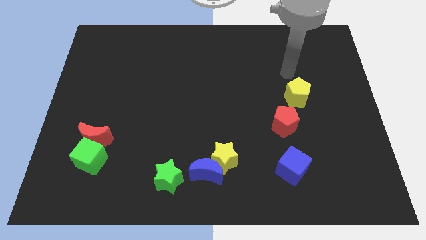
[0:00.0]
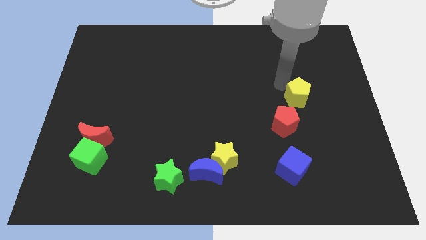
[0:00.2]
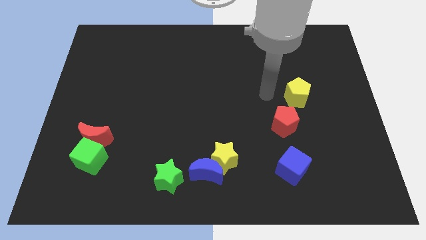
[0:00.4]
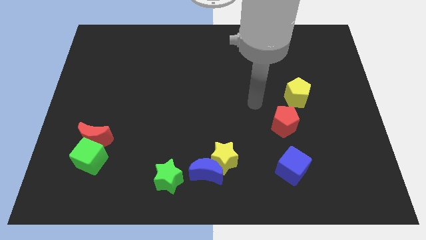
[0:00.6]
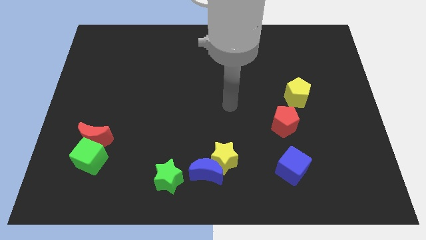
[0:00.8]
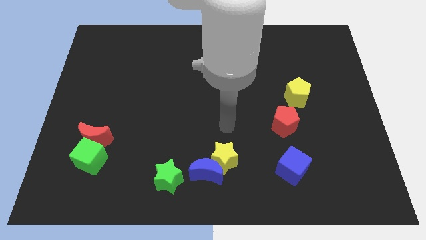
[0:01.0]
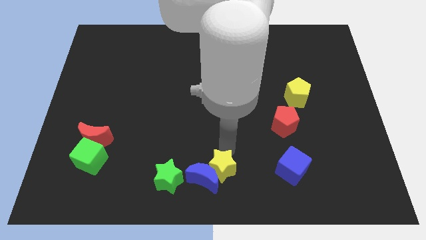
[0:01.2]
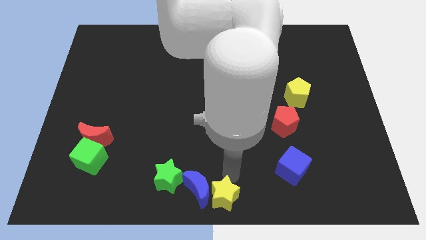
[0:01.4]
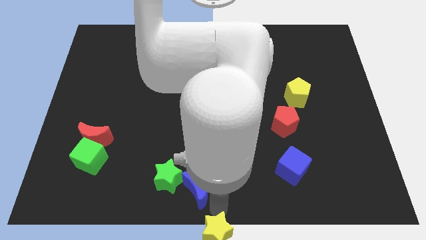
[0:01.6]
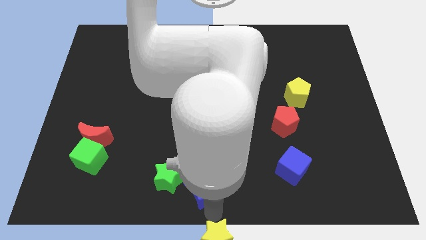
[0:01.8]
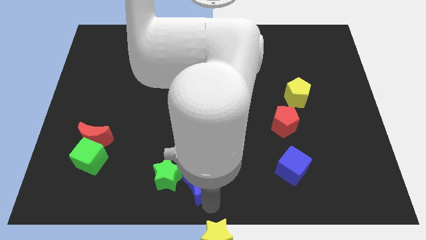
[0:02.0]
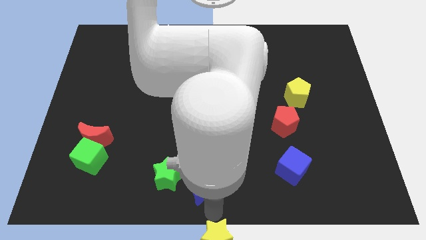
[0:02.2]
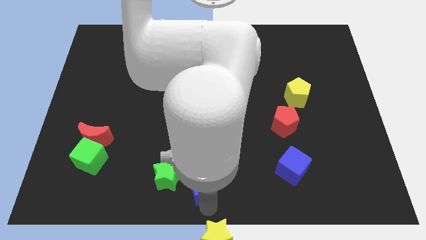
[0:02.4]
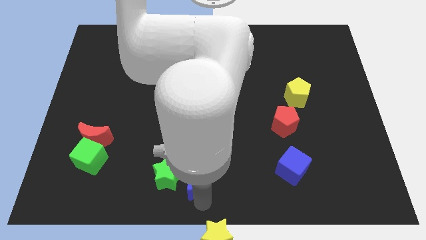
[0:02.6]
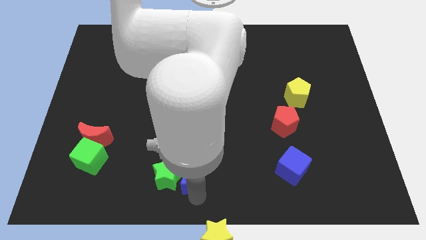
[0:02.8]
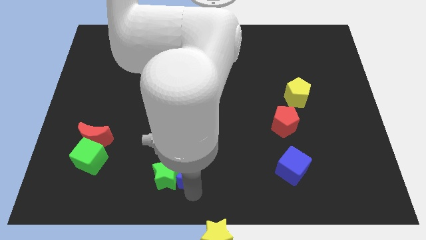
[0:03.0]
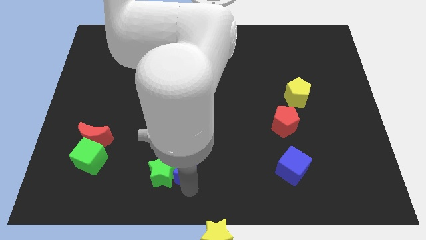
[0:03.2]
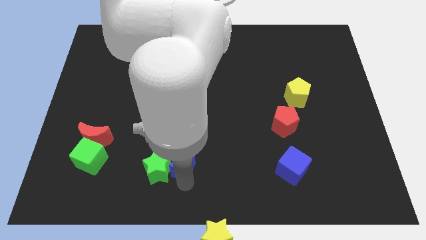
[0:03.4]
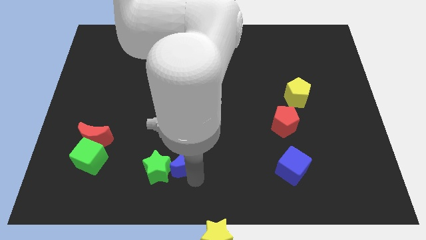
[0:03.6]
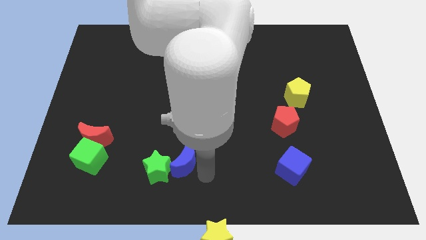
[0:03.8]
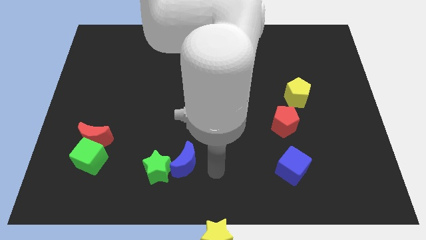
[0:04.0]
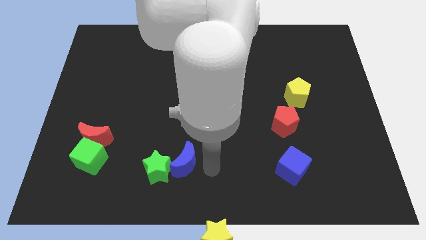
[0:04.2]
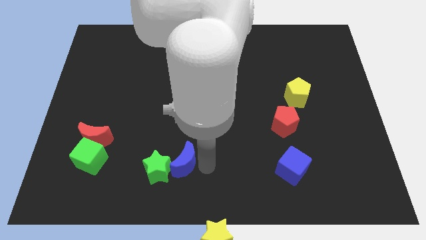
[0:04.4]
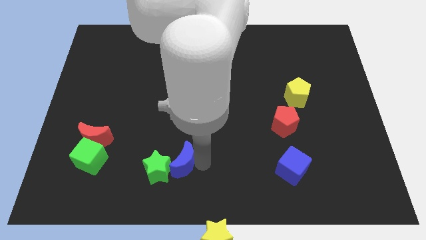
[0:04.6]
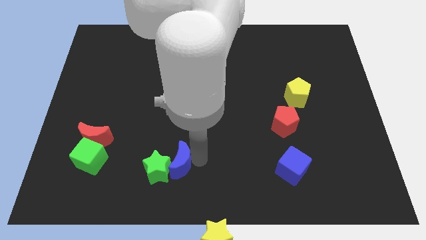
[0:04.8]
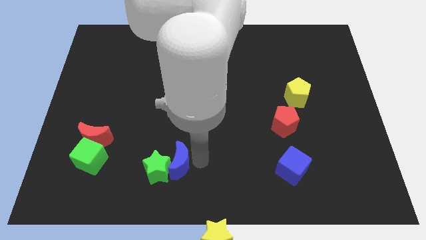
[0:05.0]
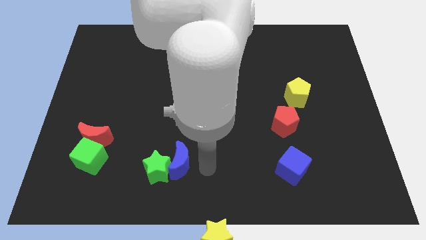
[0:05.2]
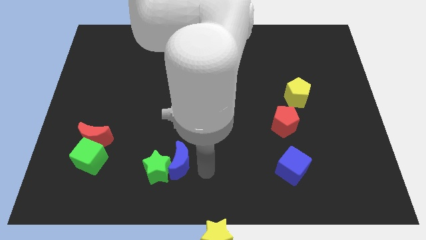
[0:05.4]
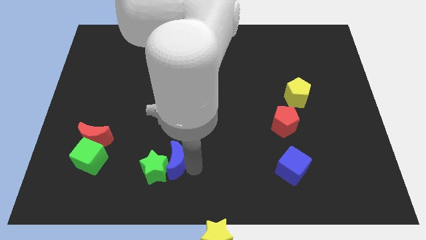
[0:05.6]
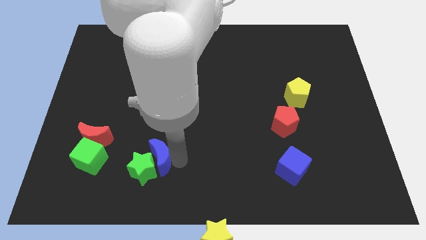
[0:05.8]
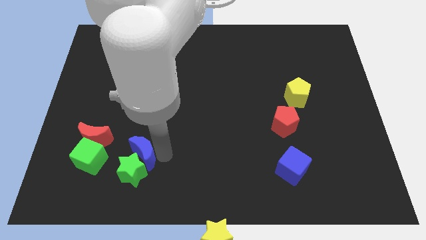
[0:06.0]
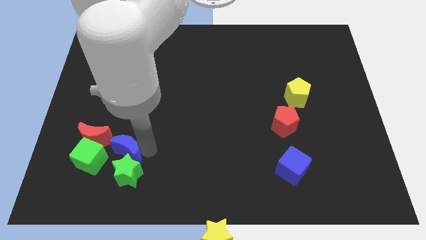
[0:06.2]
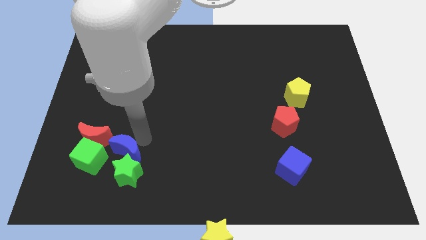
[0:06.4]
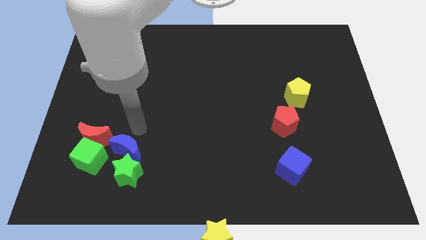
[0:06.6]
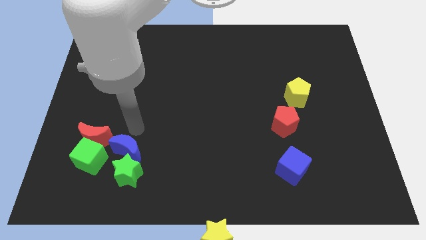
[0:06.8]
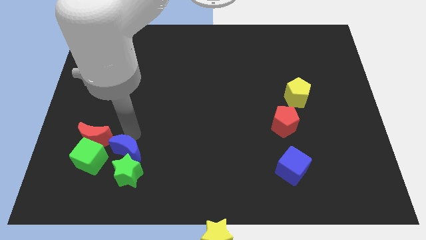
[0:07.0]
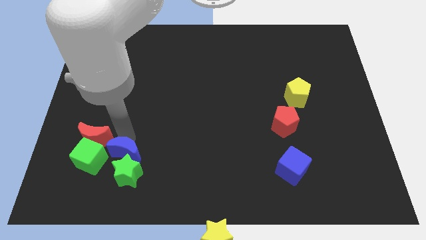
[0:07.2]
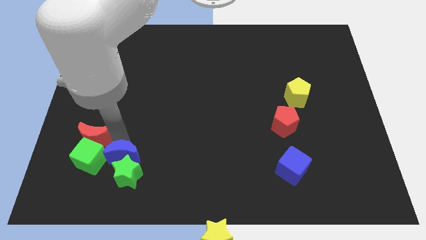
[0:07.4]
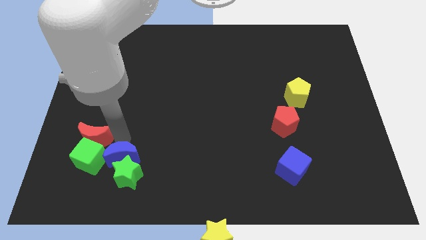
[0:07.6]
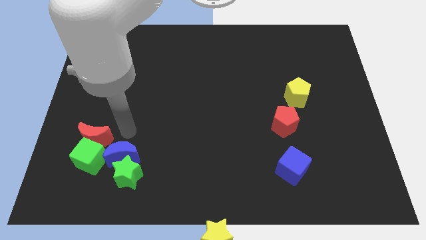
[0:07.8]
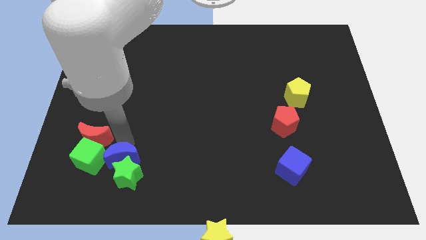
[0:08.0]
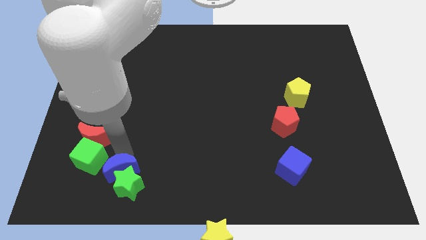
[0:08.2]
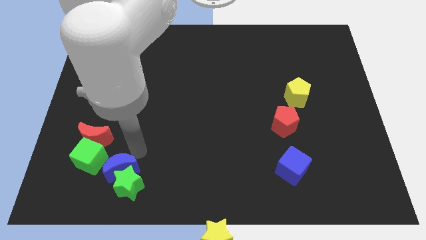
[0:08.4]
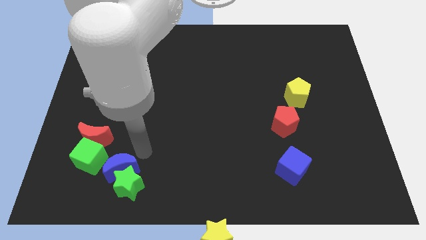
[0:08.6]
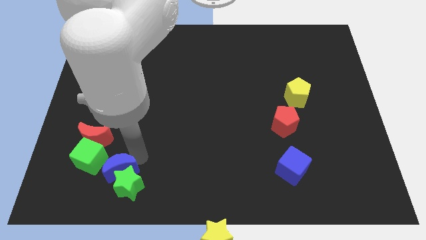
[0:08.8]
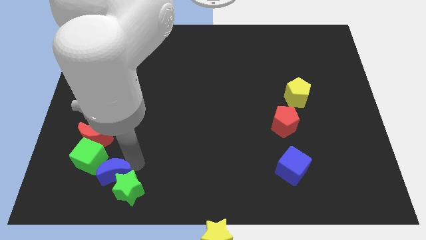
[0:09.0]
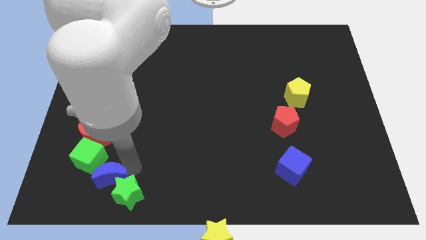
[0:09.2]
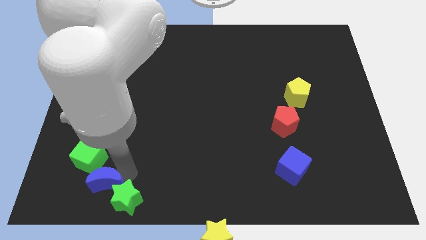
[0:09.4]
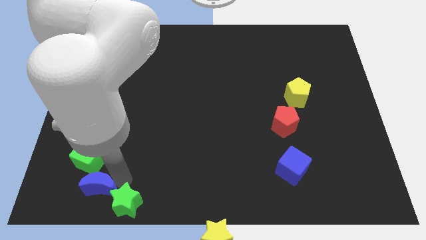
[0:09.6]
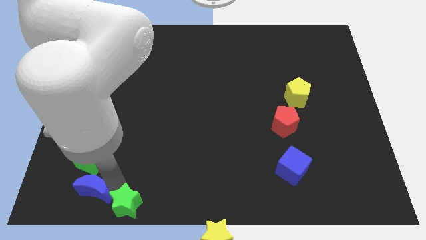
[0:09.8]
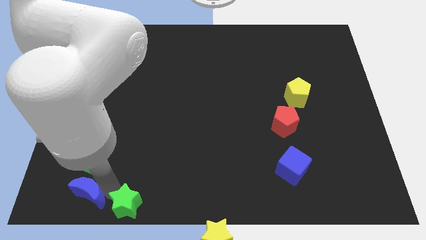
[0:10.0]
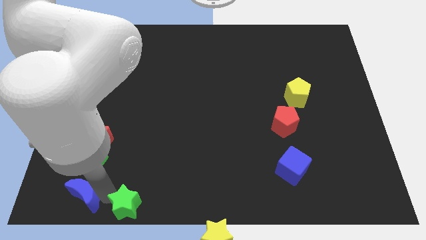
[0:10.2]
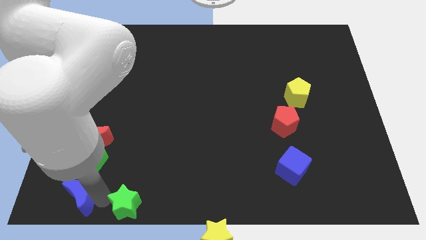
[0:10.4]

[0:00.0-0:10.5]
put the blue moon to the bottom left of the board
